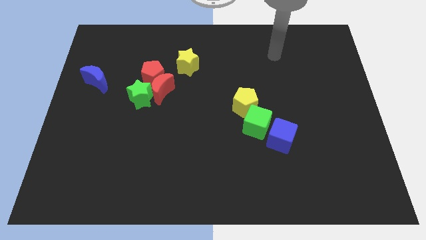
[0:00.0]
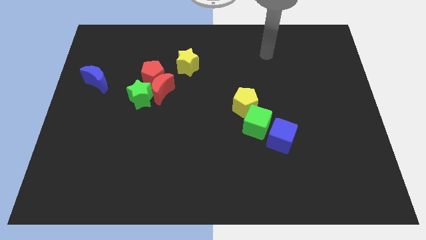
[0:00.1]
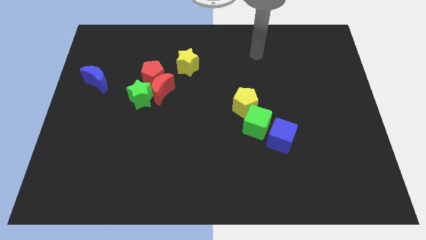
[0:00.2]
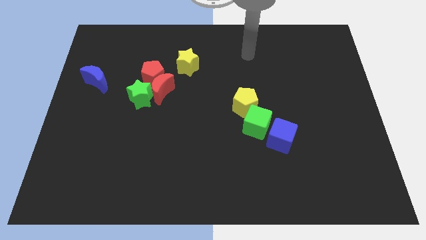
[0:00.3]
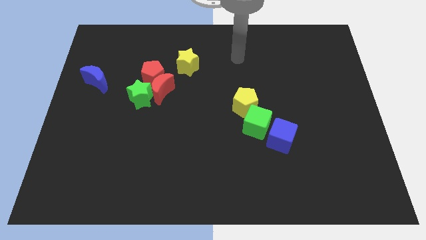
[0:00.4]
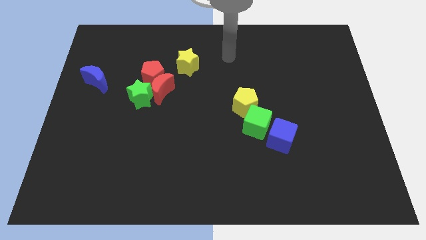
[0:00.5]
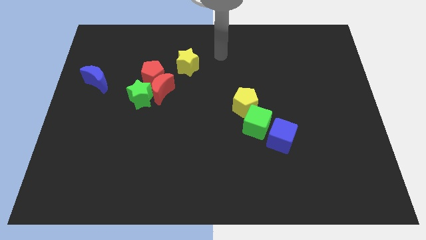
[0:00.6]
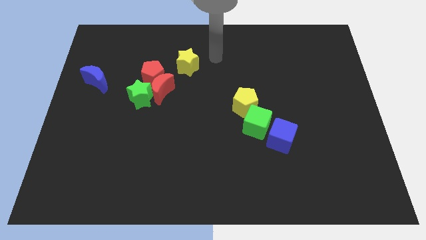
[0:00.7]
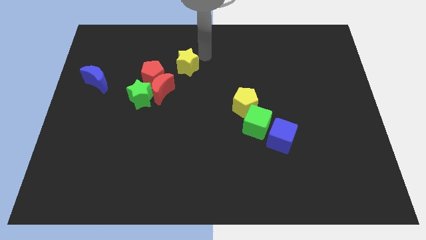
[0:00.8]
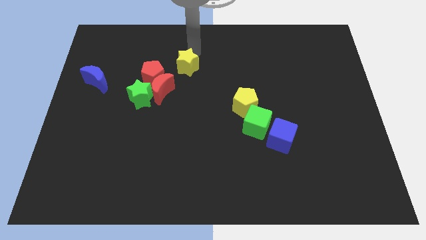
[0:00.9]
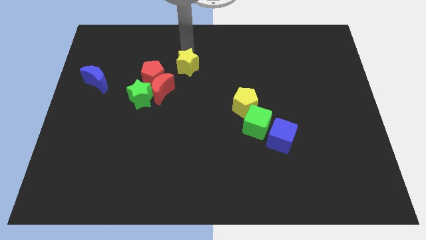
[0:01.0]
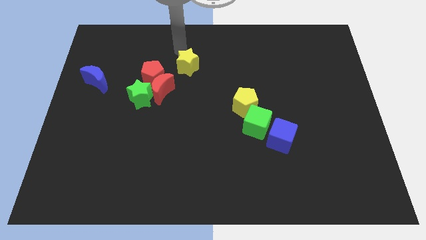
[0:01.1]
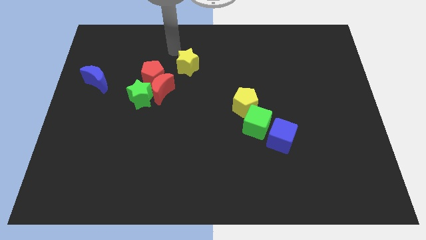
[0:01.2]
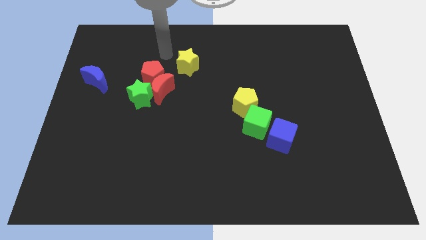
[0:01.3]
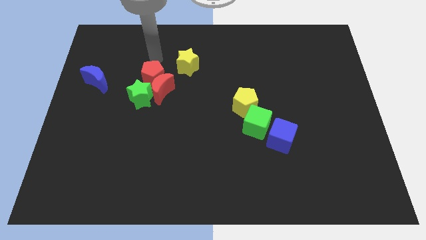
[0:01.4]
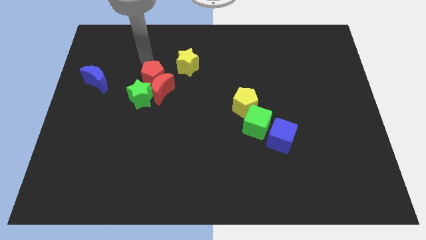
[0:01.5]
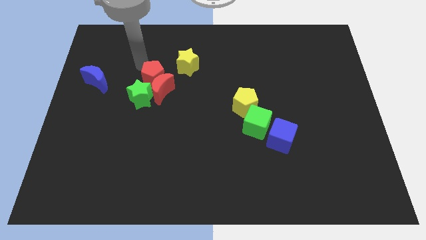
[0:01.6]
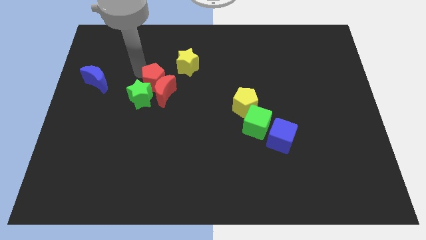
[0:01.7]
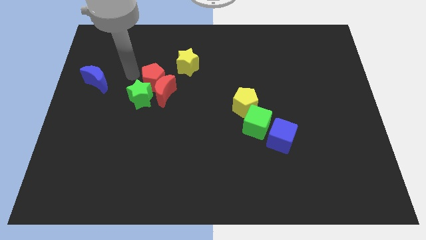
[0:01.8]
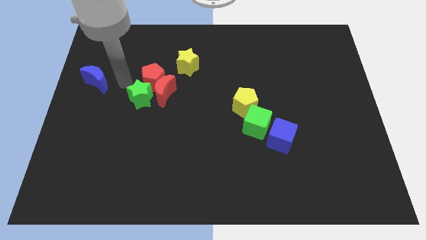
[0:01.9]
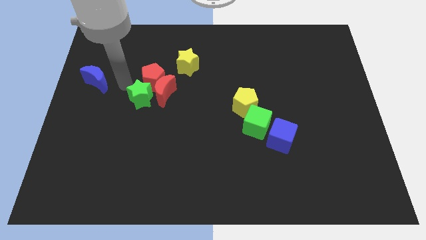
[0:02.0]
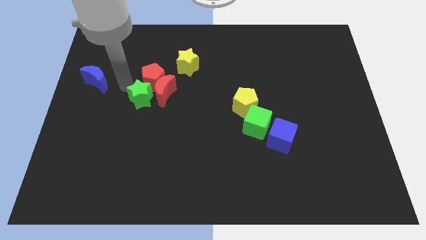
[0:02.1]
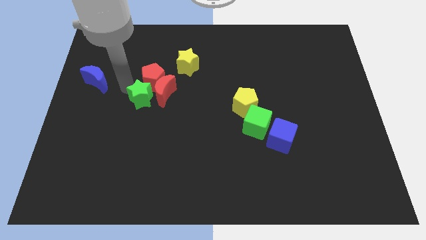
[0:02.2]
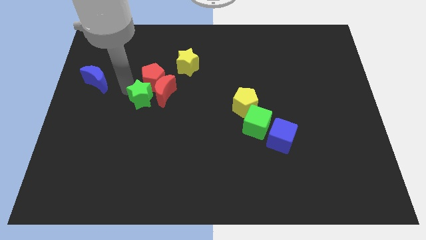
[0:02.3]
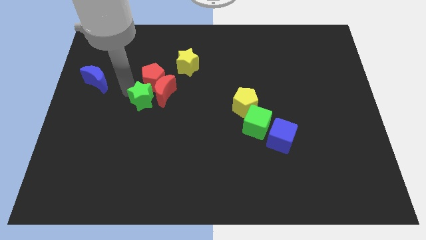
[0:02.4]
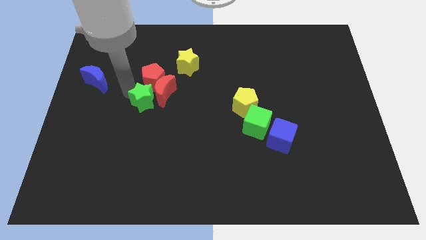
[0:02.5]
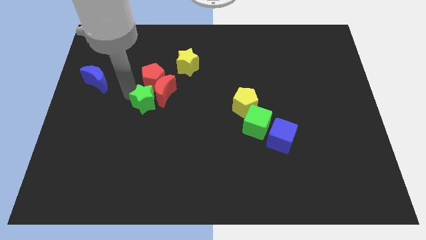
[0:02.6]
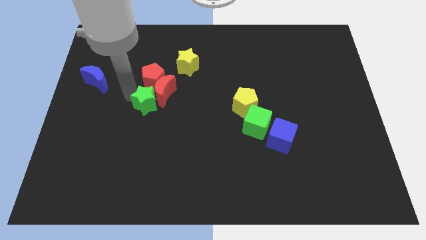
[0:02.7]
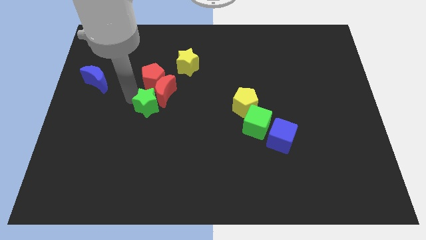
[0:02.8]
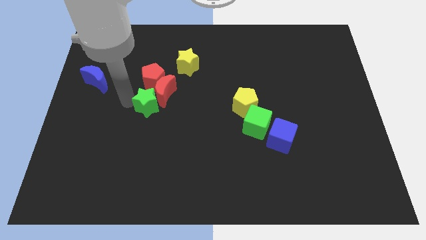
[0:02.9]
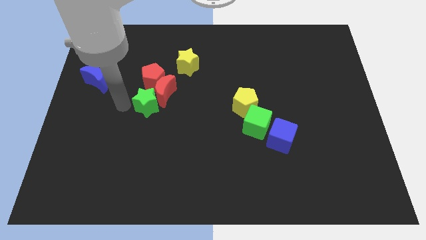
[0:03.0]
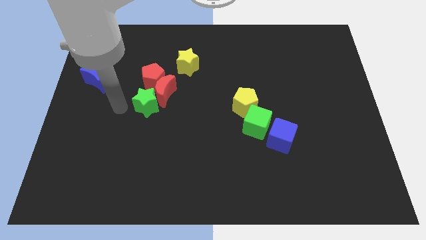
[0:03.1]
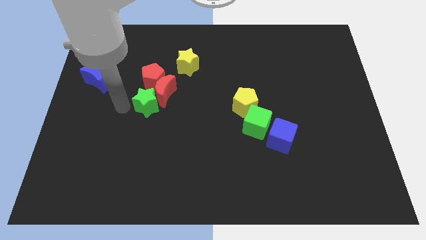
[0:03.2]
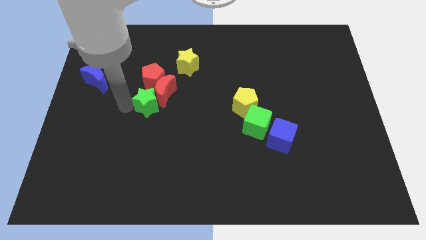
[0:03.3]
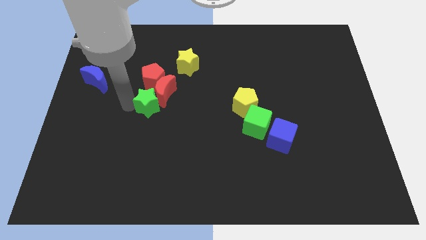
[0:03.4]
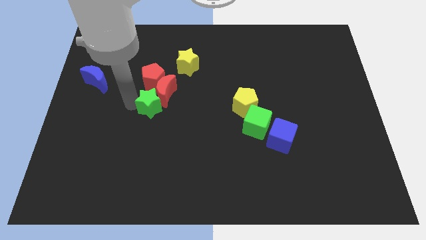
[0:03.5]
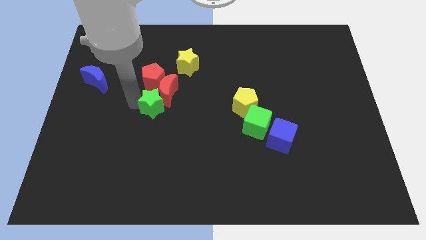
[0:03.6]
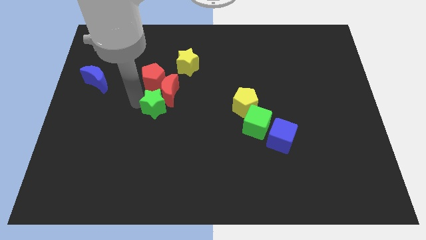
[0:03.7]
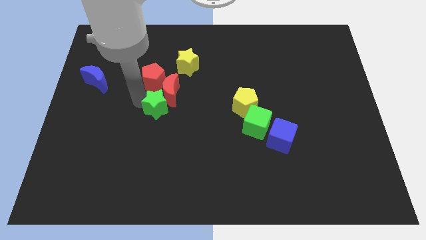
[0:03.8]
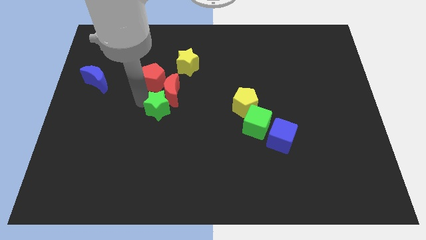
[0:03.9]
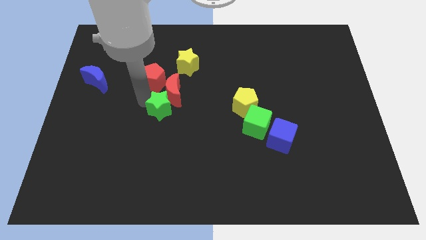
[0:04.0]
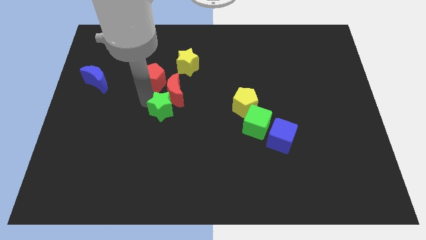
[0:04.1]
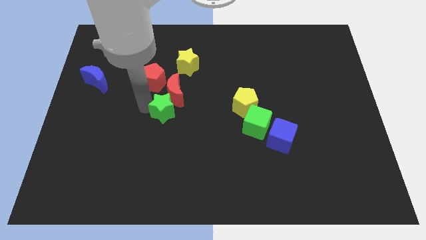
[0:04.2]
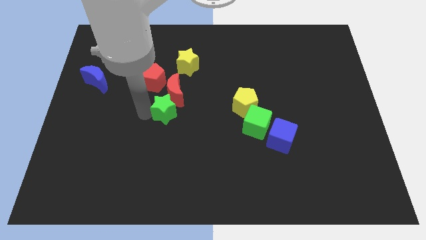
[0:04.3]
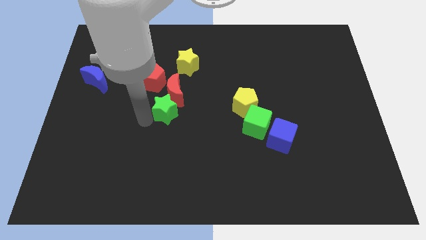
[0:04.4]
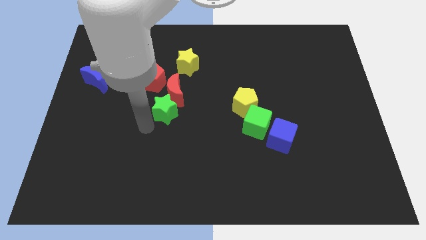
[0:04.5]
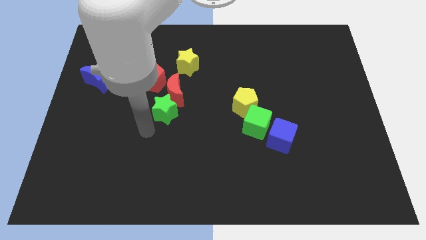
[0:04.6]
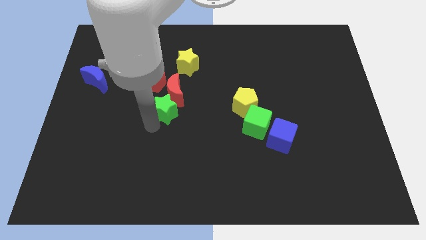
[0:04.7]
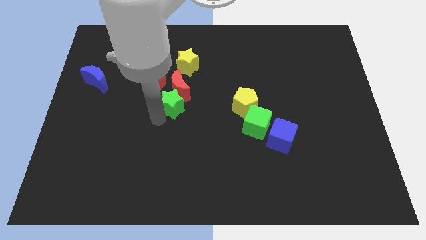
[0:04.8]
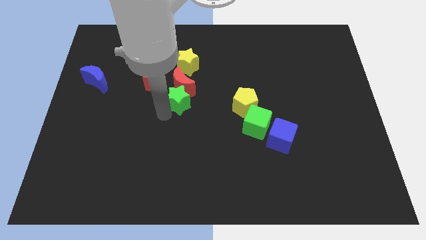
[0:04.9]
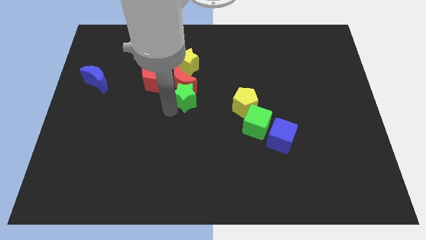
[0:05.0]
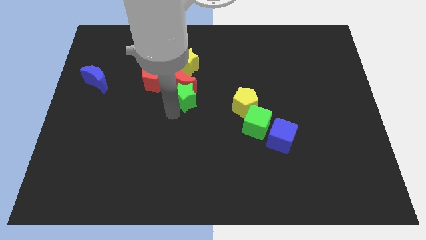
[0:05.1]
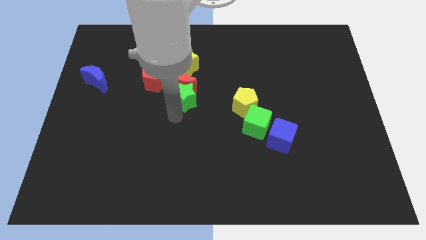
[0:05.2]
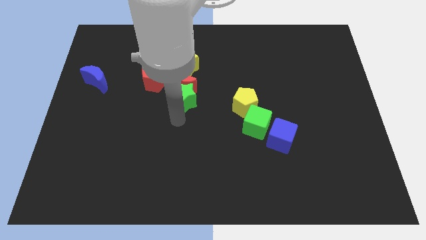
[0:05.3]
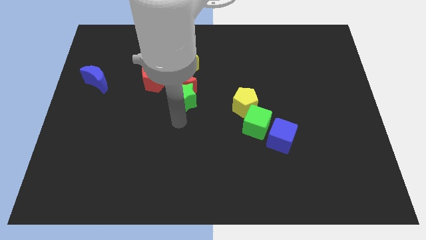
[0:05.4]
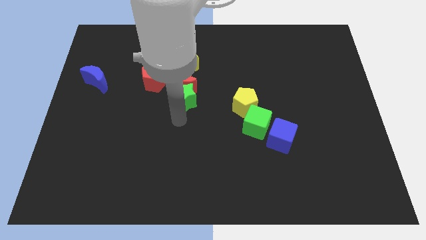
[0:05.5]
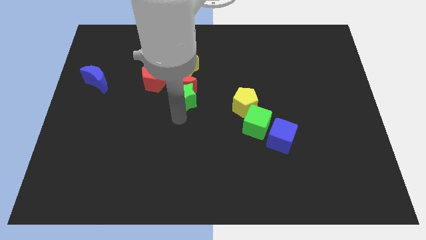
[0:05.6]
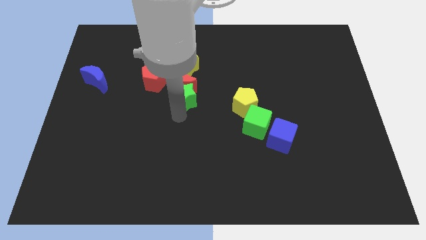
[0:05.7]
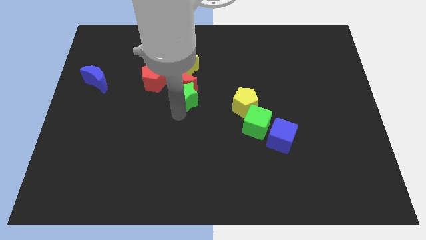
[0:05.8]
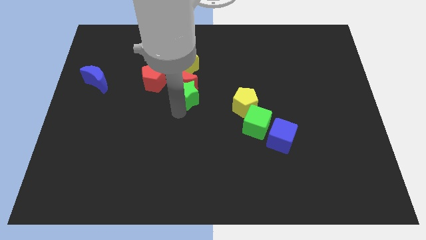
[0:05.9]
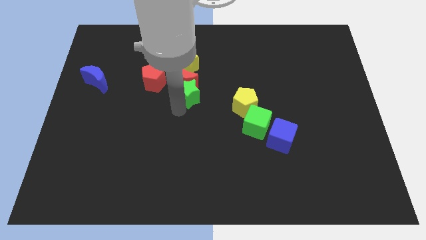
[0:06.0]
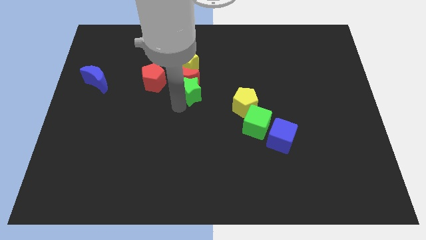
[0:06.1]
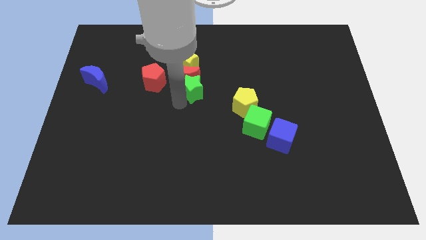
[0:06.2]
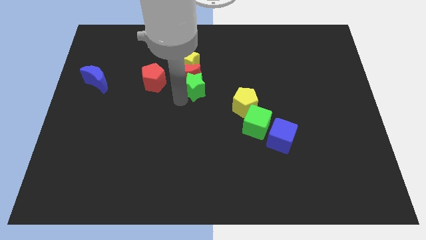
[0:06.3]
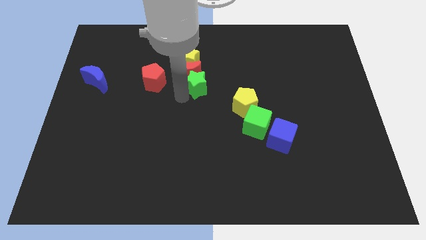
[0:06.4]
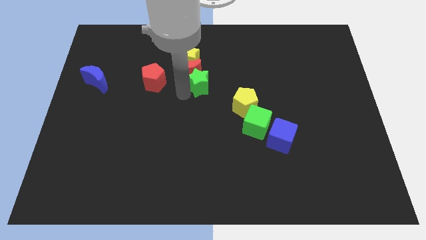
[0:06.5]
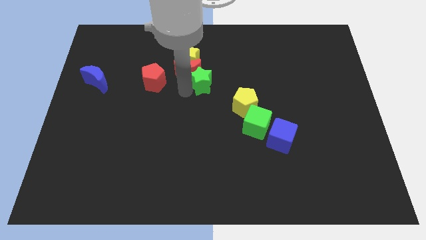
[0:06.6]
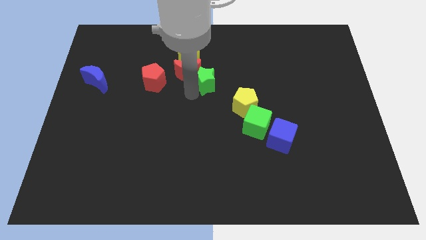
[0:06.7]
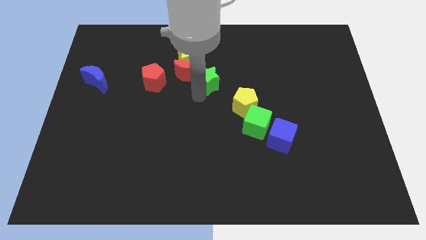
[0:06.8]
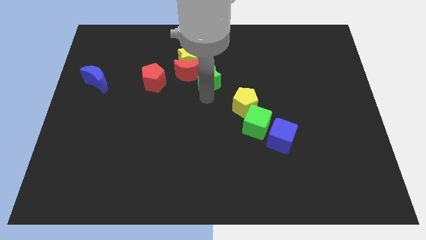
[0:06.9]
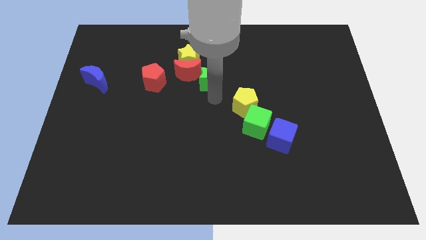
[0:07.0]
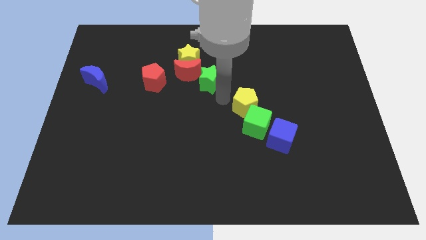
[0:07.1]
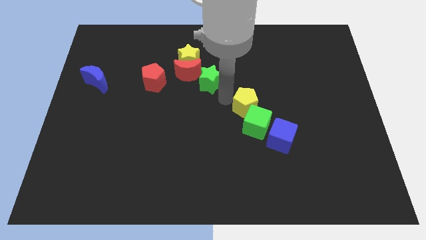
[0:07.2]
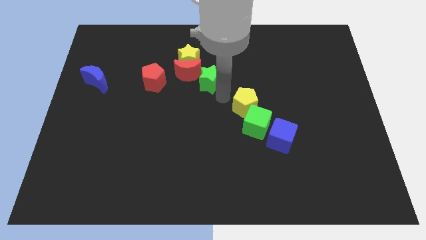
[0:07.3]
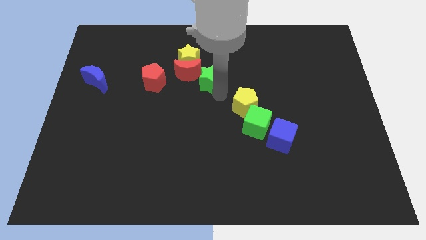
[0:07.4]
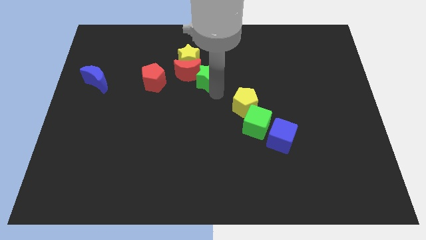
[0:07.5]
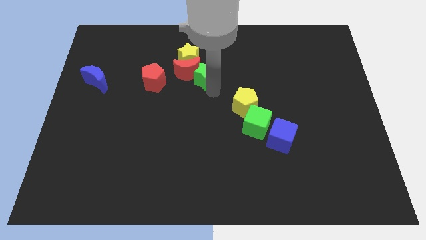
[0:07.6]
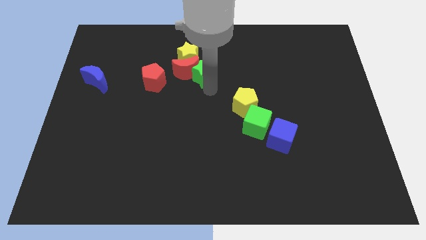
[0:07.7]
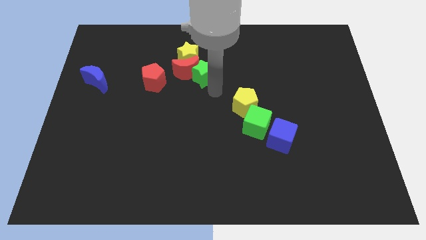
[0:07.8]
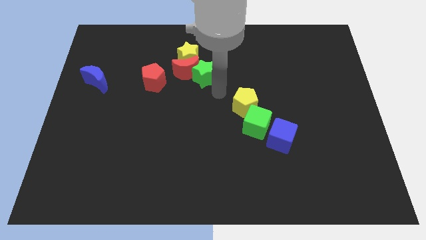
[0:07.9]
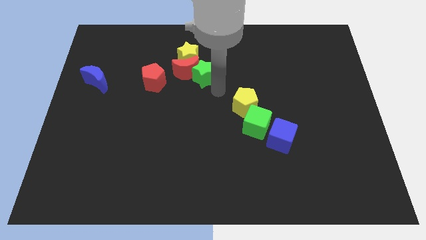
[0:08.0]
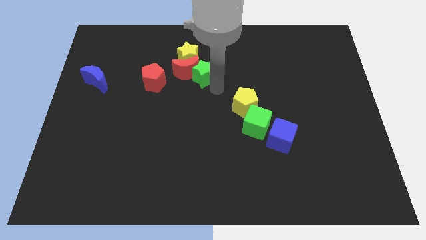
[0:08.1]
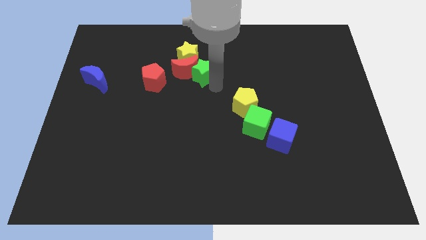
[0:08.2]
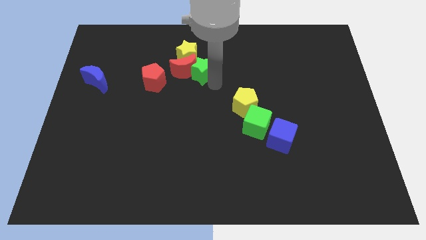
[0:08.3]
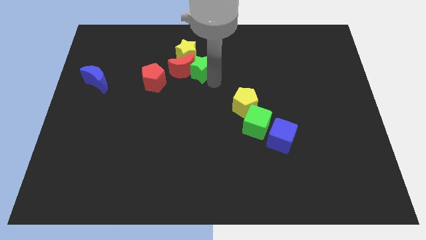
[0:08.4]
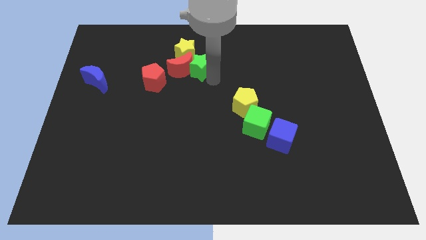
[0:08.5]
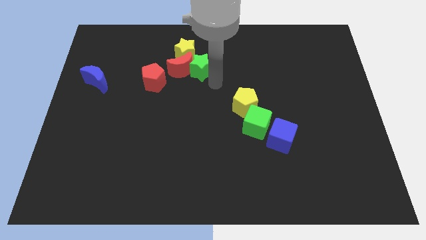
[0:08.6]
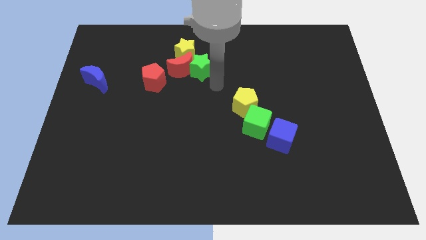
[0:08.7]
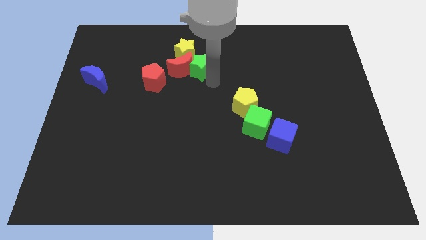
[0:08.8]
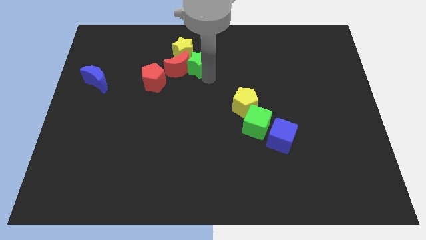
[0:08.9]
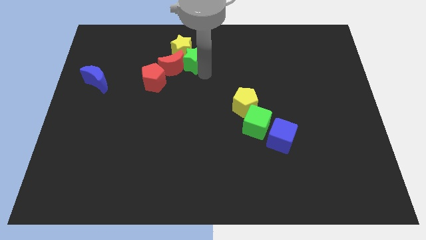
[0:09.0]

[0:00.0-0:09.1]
slide the green star next to the yellow star
